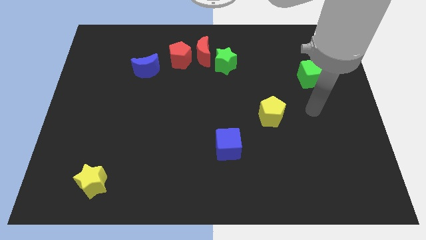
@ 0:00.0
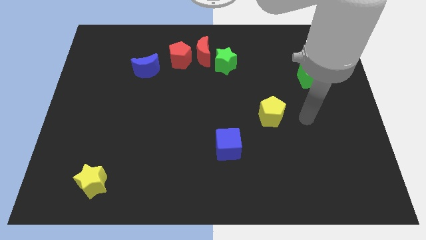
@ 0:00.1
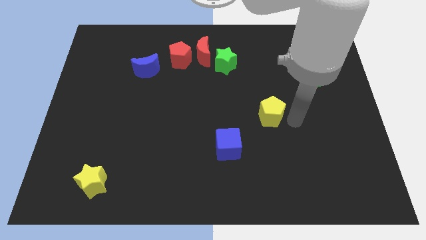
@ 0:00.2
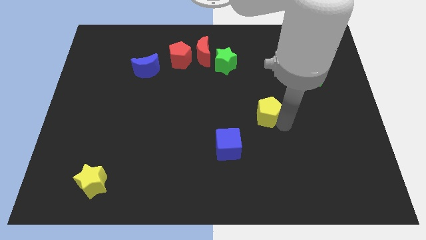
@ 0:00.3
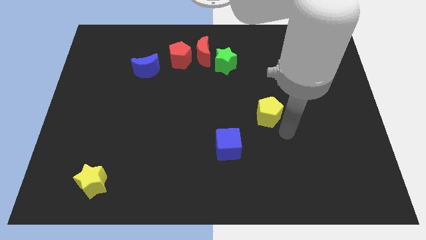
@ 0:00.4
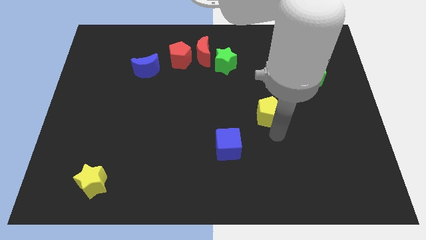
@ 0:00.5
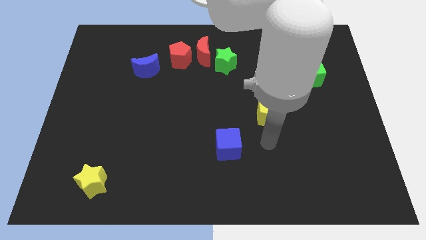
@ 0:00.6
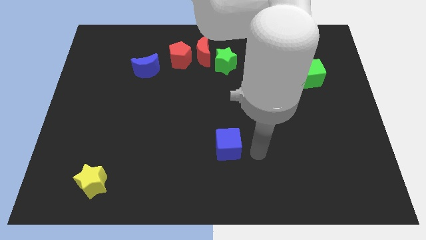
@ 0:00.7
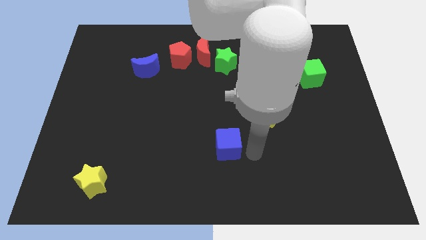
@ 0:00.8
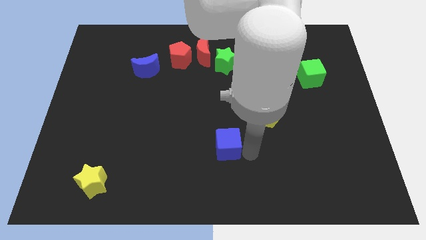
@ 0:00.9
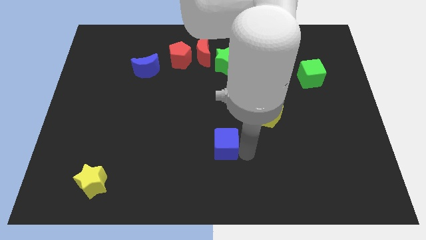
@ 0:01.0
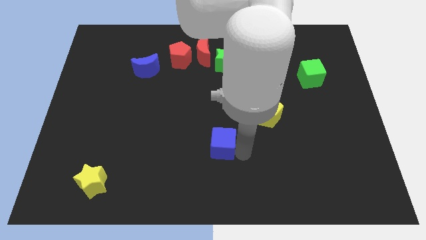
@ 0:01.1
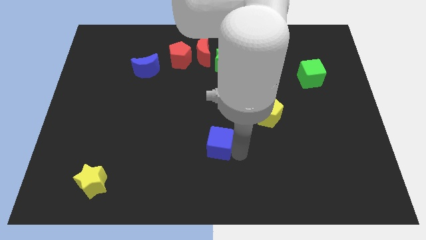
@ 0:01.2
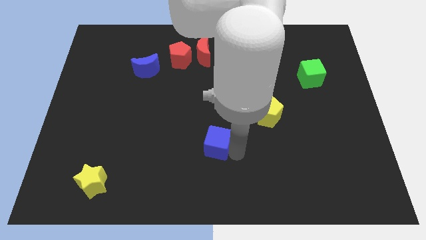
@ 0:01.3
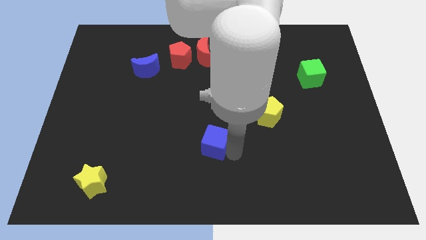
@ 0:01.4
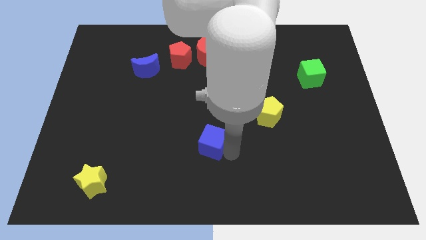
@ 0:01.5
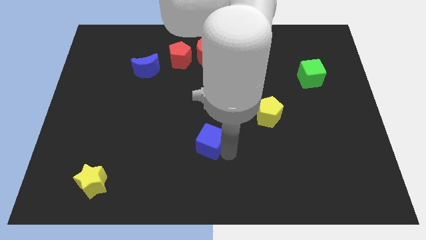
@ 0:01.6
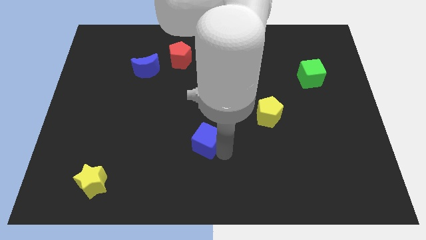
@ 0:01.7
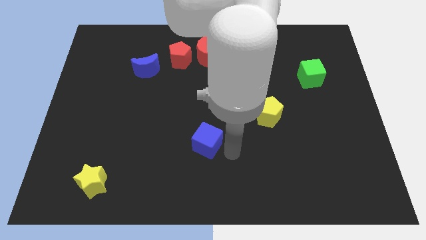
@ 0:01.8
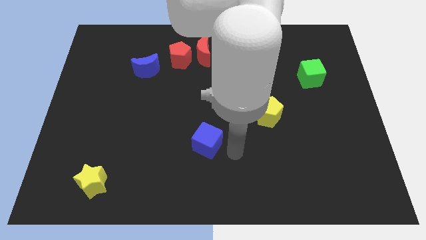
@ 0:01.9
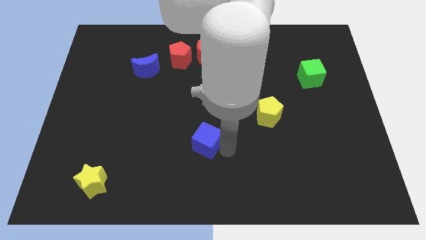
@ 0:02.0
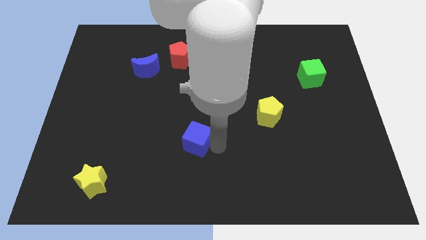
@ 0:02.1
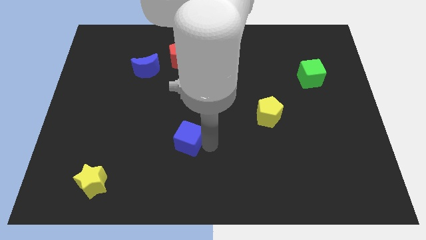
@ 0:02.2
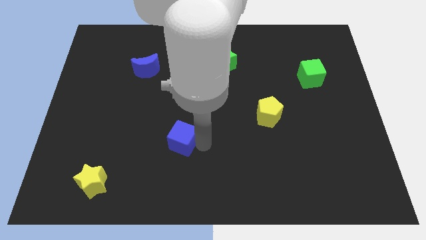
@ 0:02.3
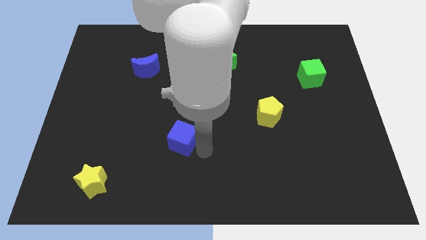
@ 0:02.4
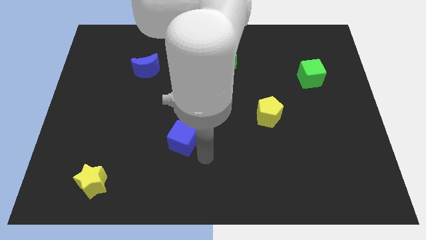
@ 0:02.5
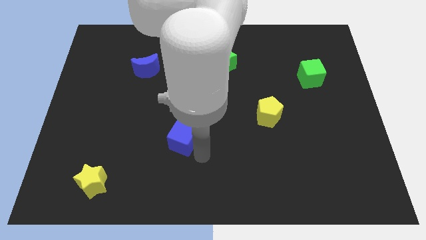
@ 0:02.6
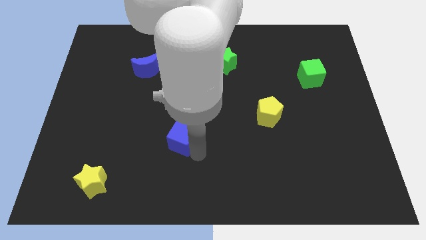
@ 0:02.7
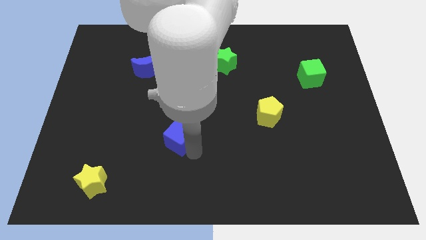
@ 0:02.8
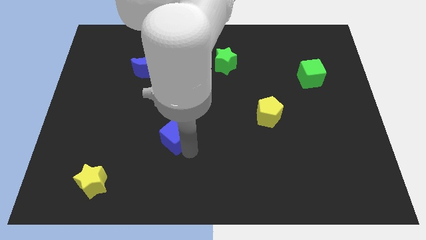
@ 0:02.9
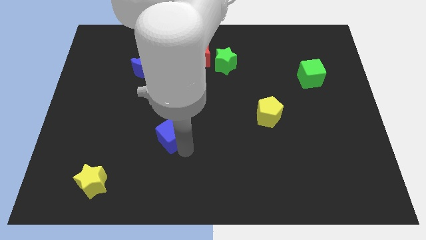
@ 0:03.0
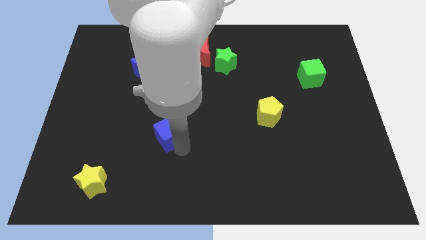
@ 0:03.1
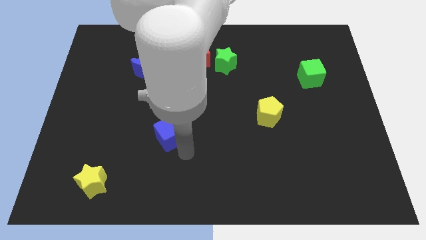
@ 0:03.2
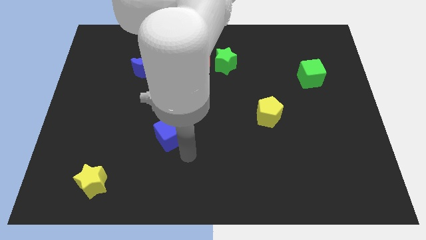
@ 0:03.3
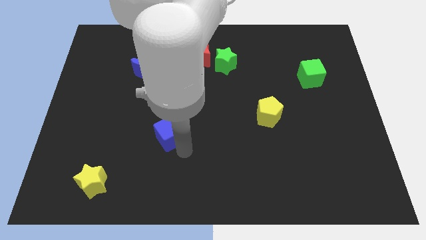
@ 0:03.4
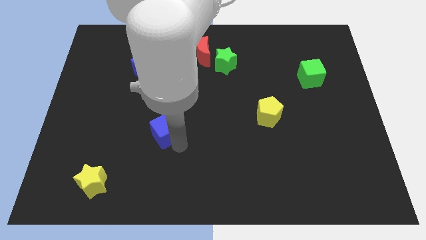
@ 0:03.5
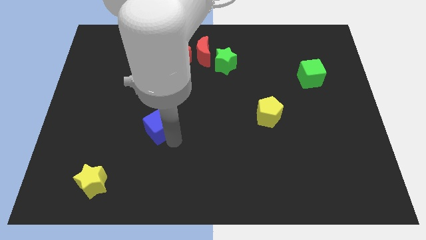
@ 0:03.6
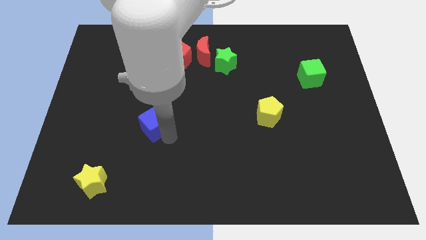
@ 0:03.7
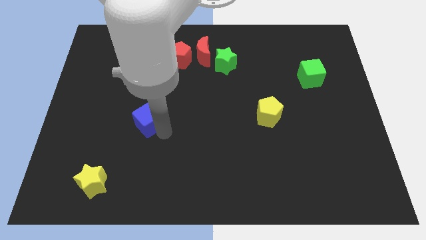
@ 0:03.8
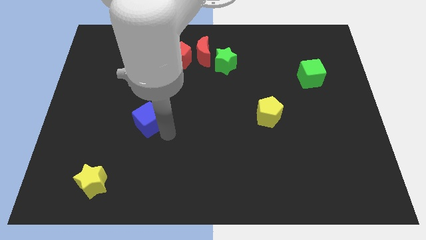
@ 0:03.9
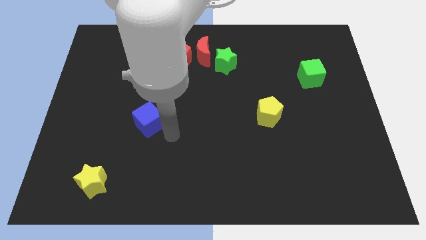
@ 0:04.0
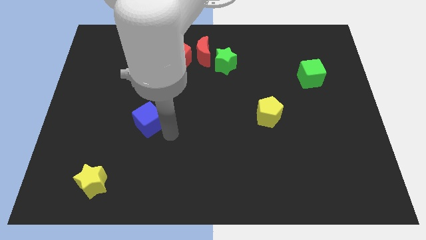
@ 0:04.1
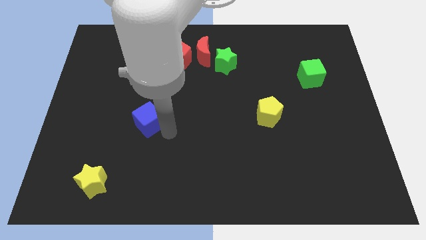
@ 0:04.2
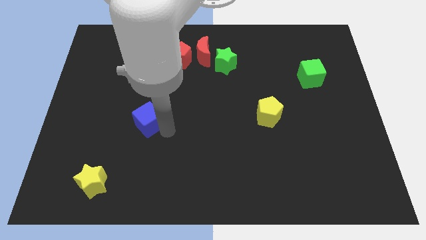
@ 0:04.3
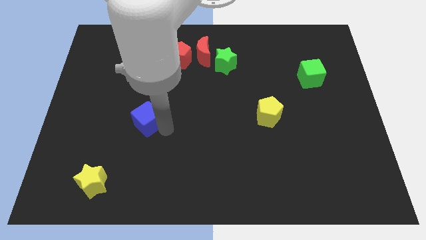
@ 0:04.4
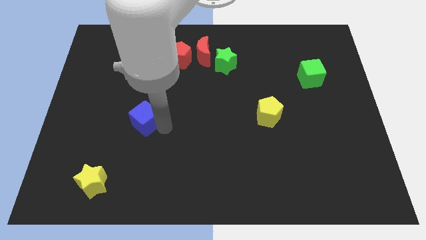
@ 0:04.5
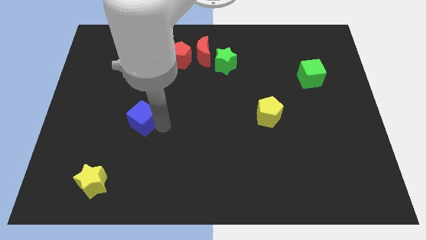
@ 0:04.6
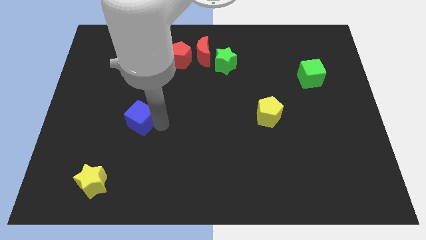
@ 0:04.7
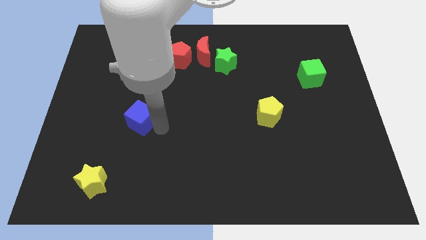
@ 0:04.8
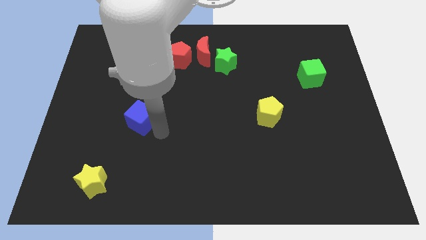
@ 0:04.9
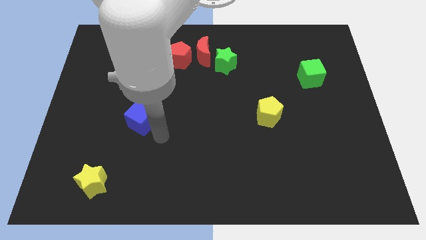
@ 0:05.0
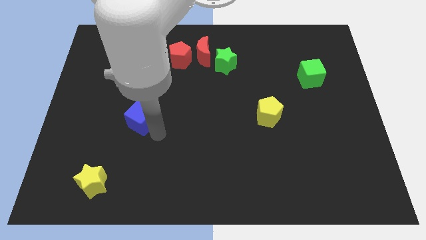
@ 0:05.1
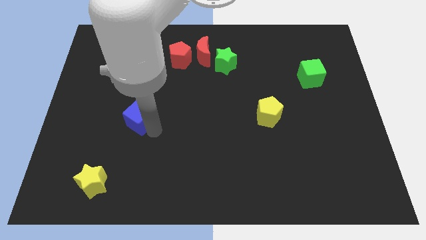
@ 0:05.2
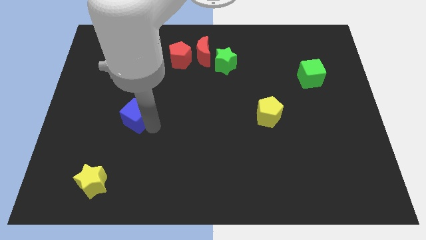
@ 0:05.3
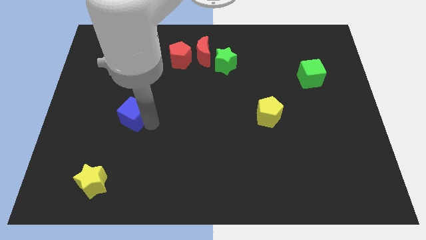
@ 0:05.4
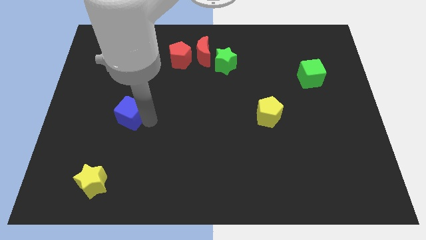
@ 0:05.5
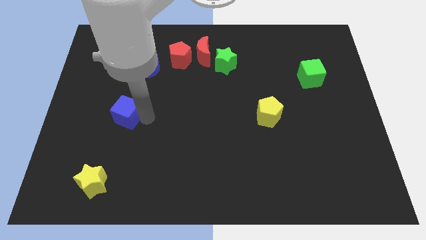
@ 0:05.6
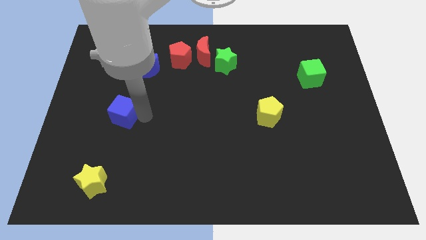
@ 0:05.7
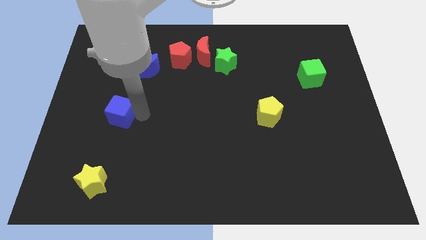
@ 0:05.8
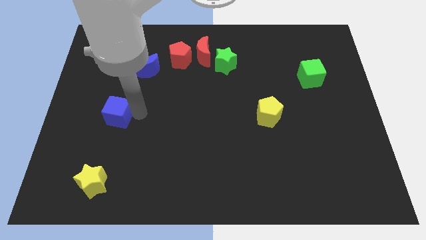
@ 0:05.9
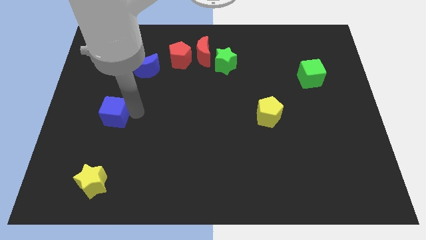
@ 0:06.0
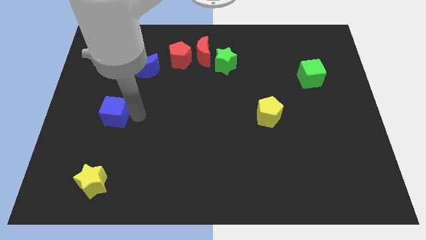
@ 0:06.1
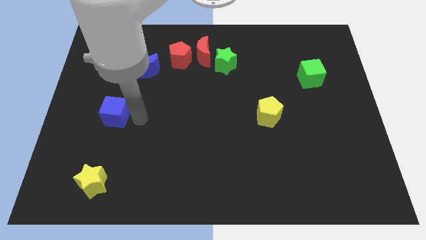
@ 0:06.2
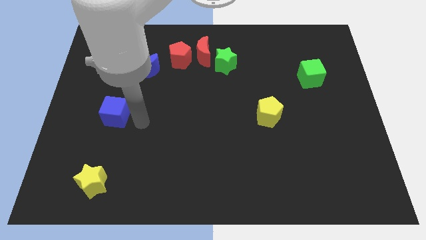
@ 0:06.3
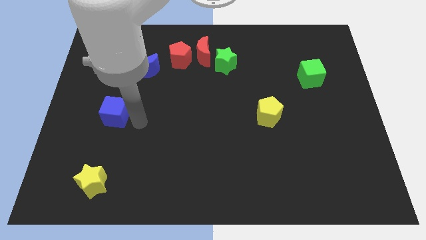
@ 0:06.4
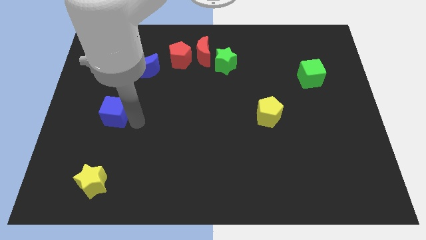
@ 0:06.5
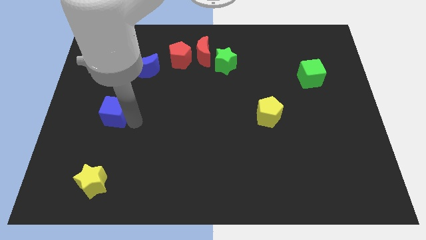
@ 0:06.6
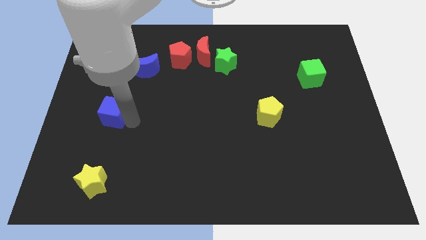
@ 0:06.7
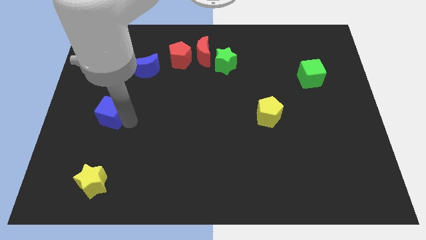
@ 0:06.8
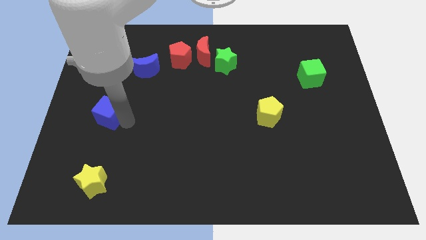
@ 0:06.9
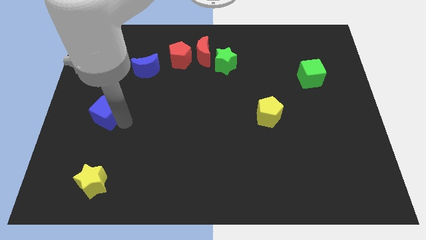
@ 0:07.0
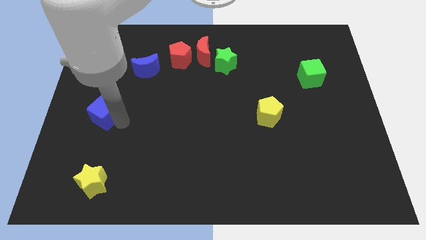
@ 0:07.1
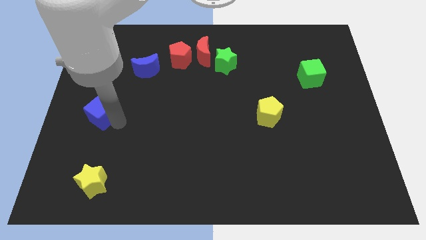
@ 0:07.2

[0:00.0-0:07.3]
slide the blue cube to the left side
